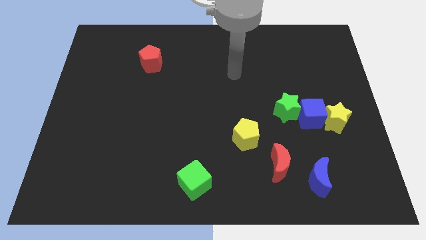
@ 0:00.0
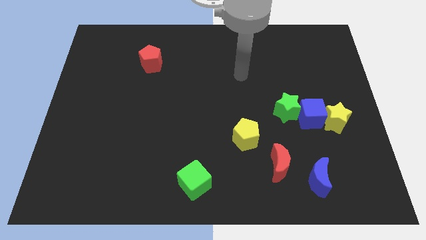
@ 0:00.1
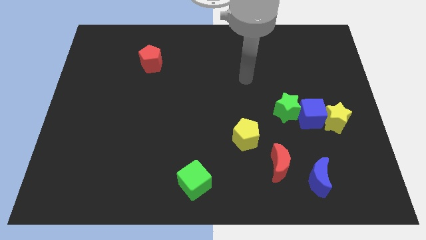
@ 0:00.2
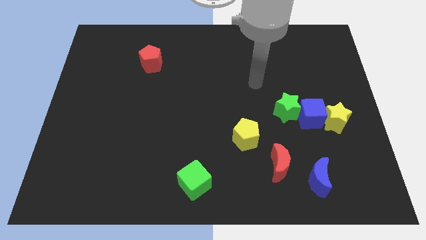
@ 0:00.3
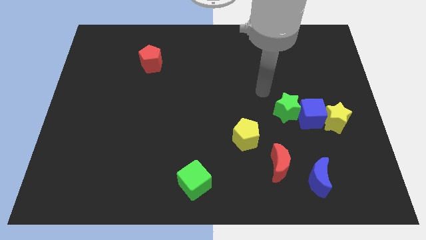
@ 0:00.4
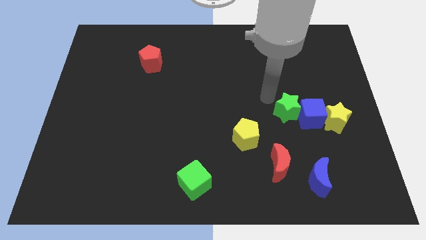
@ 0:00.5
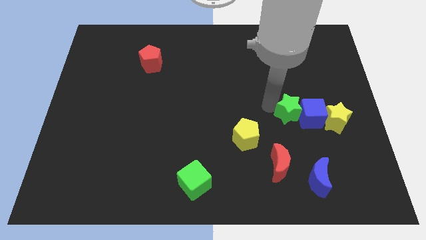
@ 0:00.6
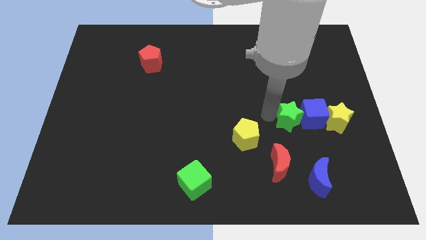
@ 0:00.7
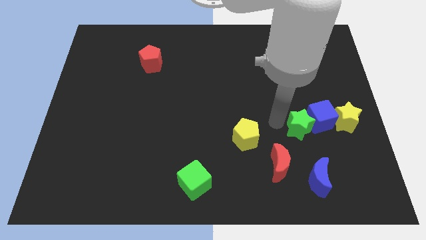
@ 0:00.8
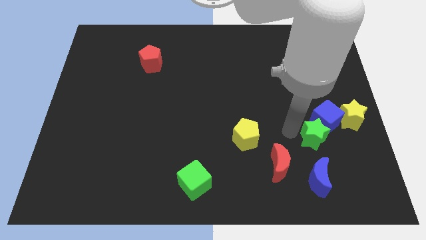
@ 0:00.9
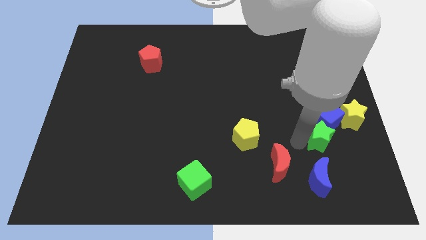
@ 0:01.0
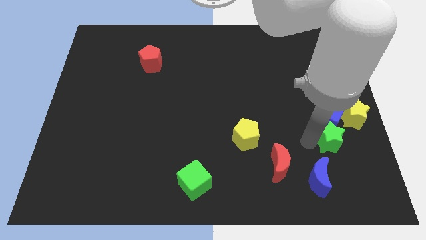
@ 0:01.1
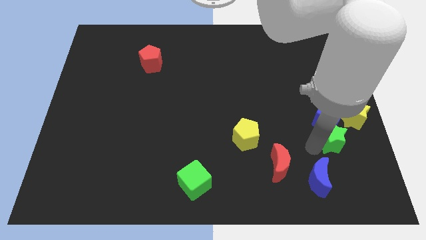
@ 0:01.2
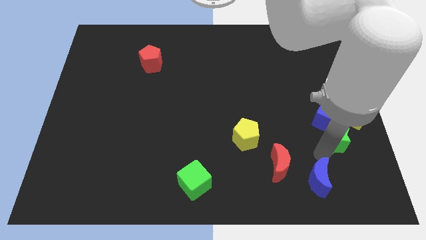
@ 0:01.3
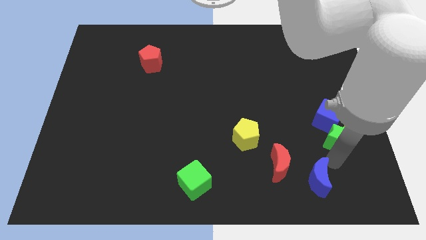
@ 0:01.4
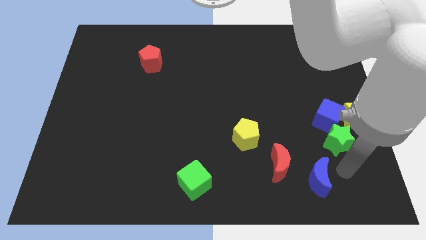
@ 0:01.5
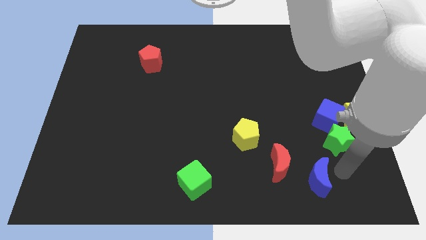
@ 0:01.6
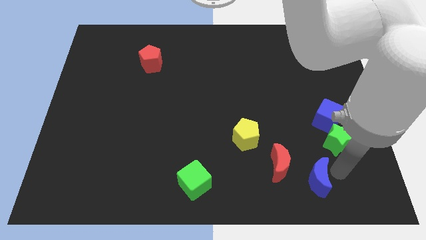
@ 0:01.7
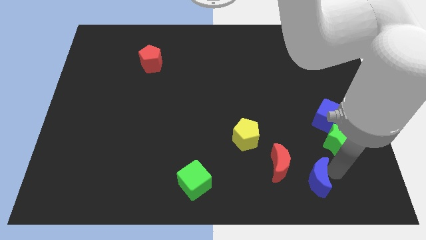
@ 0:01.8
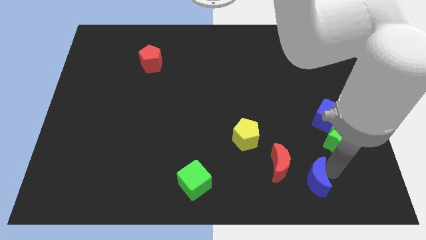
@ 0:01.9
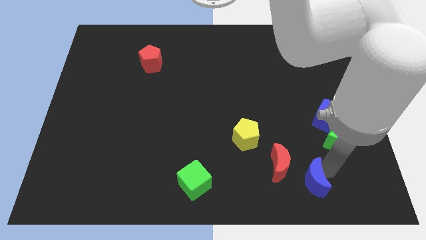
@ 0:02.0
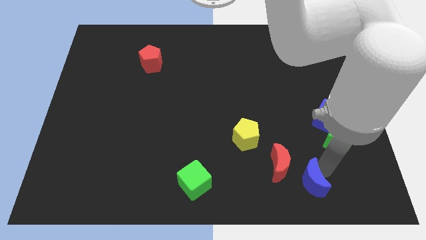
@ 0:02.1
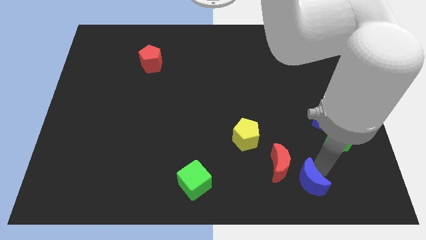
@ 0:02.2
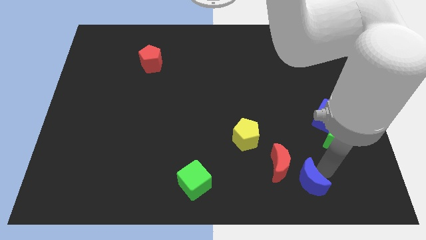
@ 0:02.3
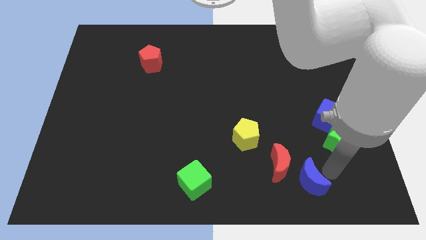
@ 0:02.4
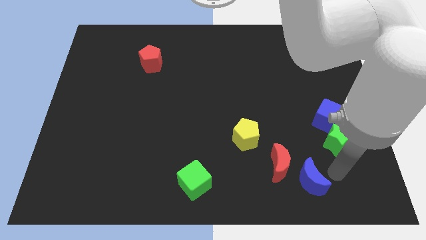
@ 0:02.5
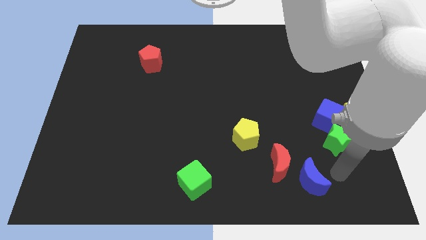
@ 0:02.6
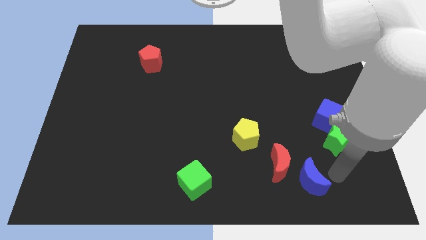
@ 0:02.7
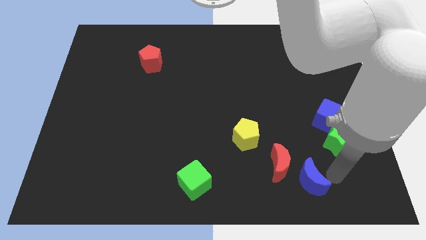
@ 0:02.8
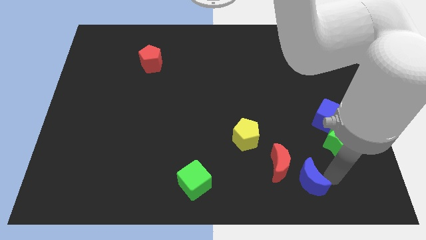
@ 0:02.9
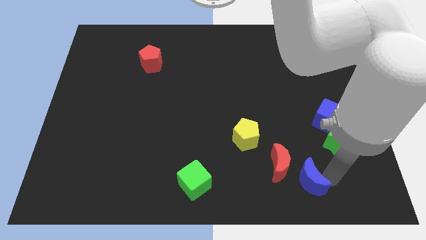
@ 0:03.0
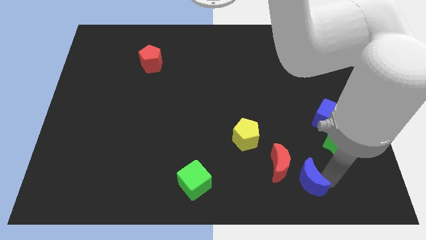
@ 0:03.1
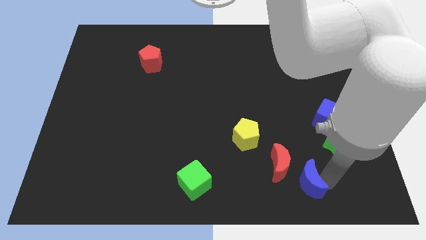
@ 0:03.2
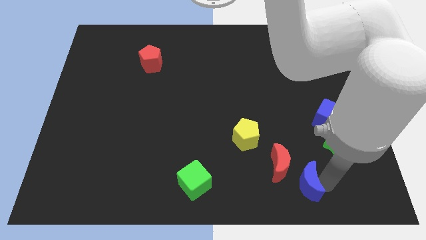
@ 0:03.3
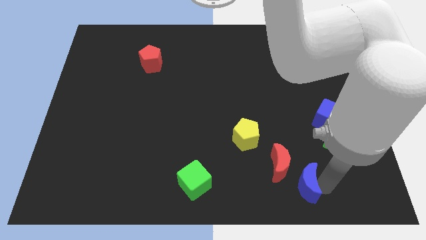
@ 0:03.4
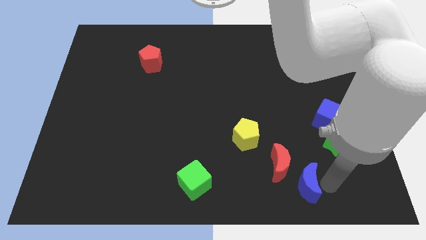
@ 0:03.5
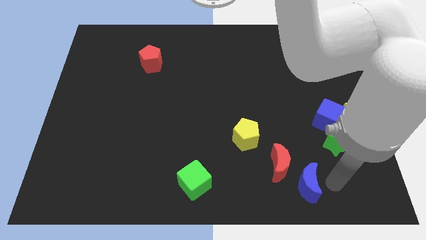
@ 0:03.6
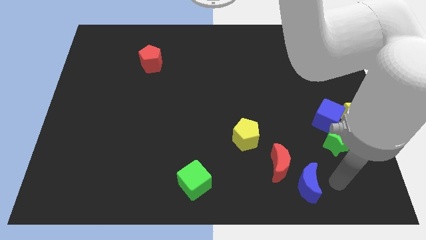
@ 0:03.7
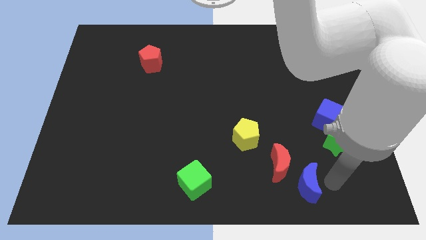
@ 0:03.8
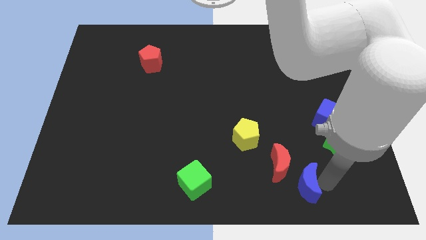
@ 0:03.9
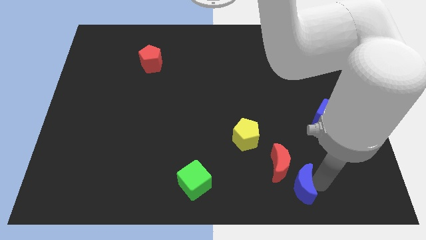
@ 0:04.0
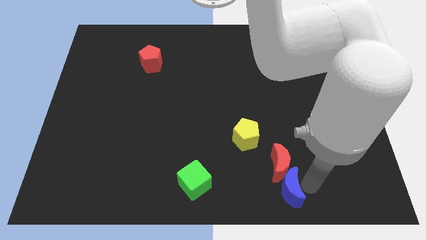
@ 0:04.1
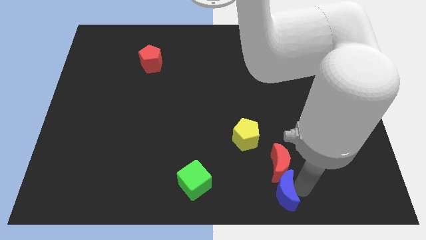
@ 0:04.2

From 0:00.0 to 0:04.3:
slightly move the blue moon left

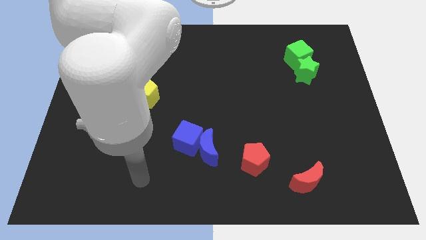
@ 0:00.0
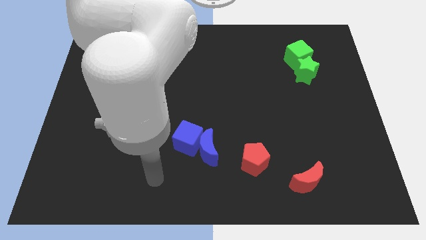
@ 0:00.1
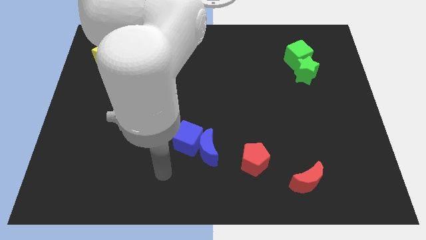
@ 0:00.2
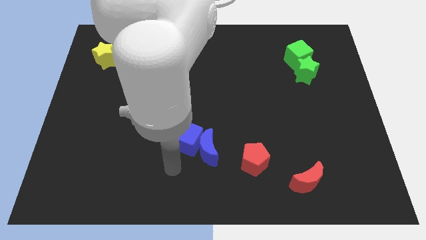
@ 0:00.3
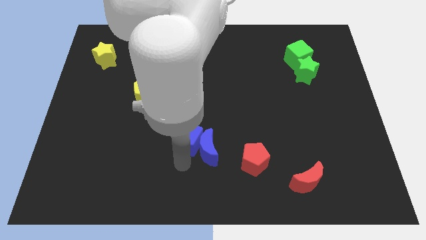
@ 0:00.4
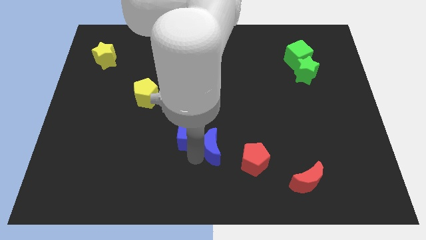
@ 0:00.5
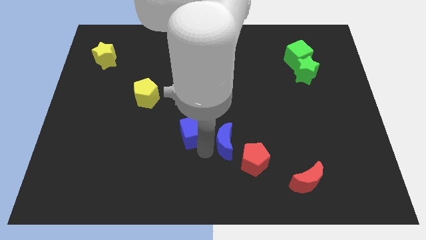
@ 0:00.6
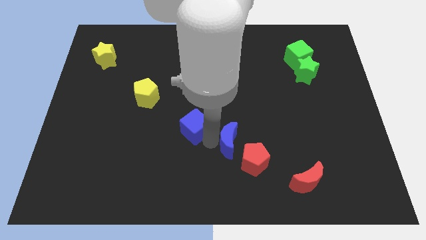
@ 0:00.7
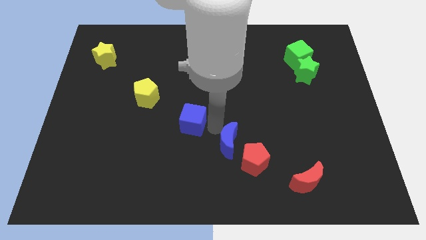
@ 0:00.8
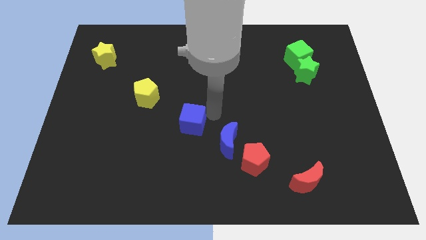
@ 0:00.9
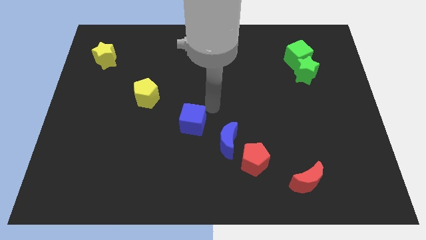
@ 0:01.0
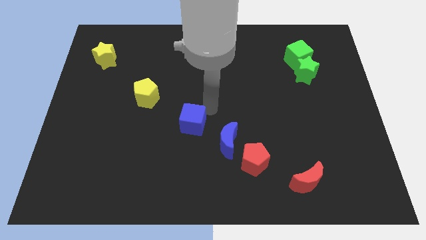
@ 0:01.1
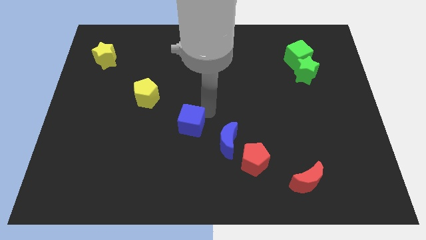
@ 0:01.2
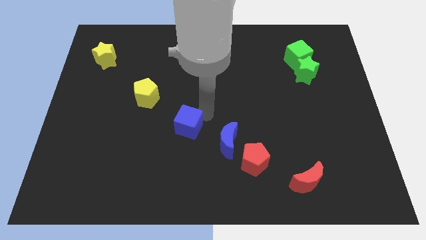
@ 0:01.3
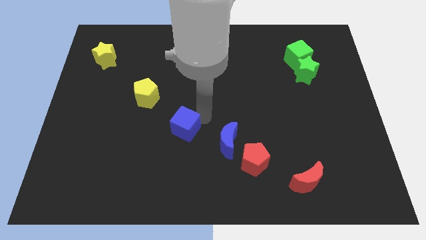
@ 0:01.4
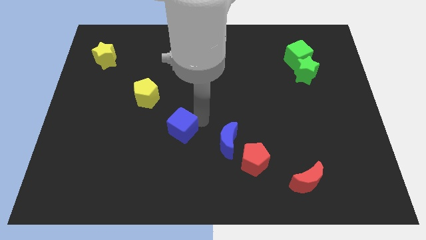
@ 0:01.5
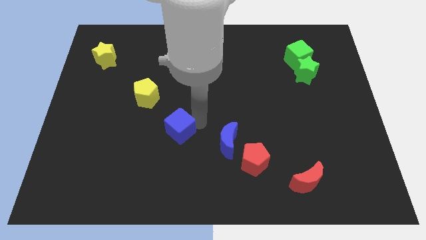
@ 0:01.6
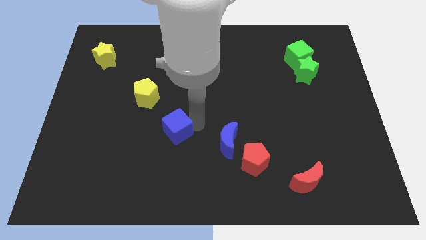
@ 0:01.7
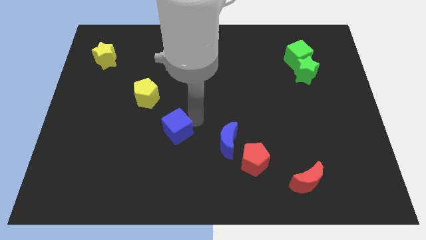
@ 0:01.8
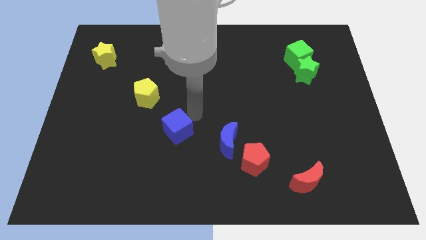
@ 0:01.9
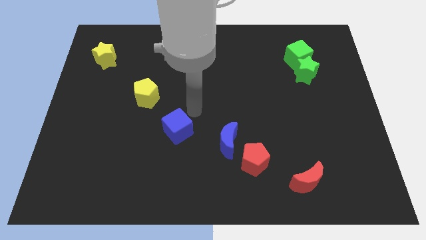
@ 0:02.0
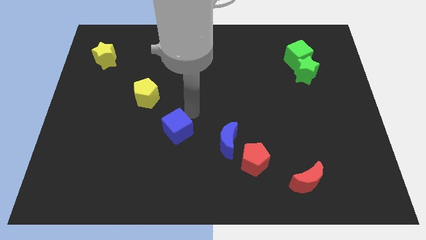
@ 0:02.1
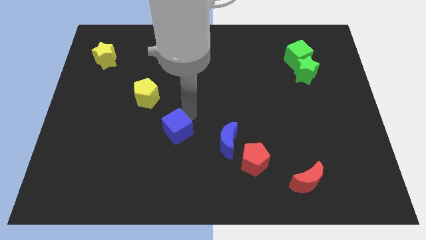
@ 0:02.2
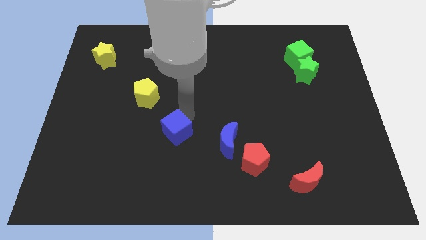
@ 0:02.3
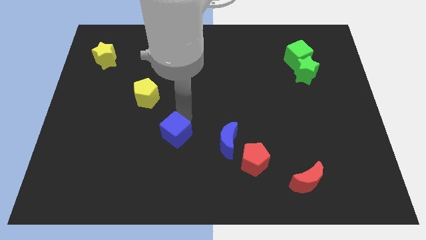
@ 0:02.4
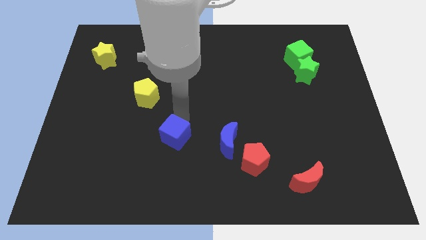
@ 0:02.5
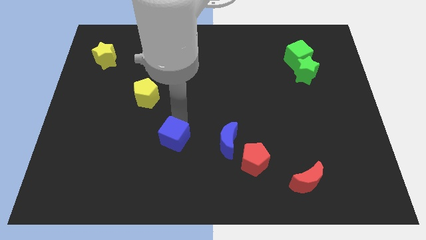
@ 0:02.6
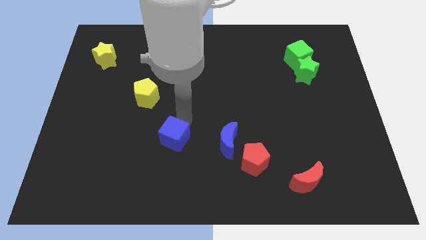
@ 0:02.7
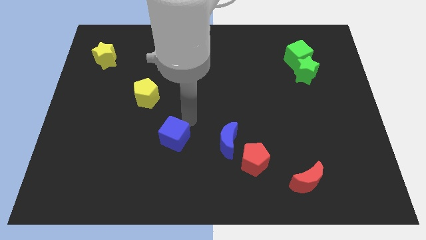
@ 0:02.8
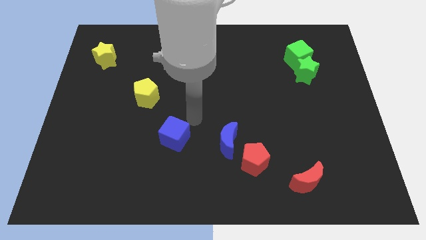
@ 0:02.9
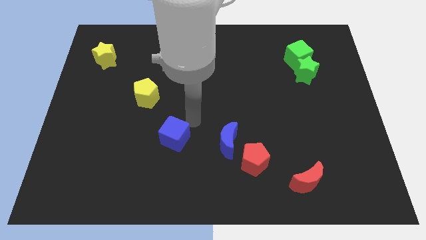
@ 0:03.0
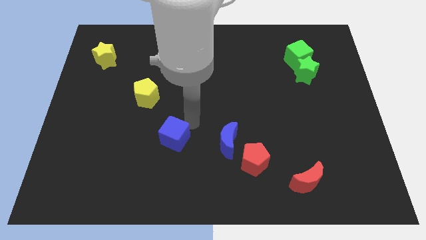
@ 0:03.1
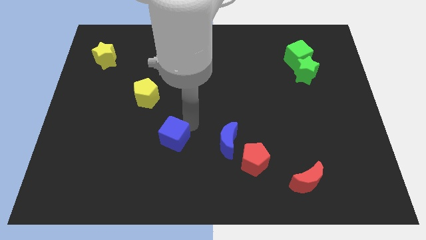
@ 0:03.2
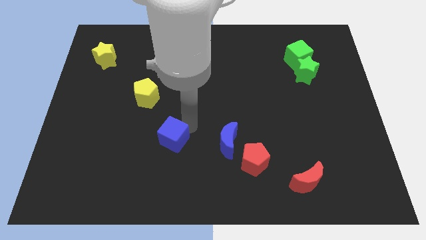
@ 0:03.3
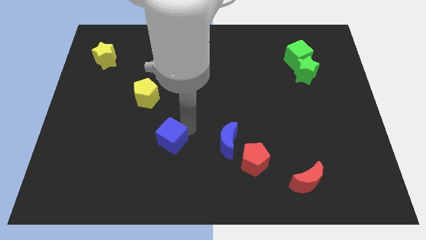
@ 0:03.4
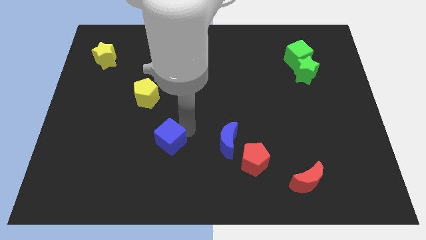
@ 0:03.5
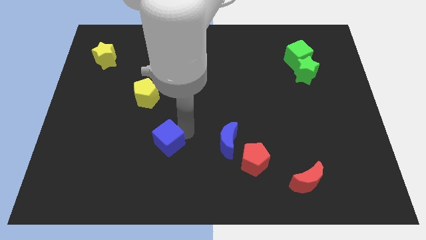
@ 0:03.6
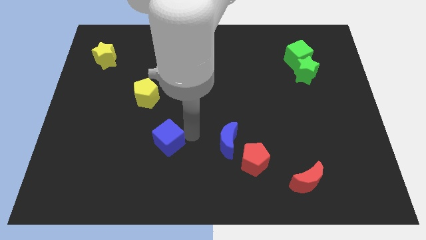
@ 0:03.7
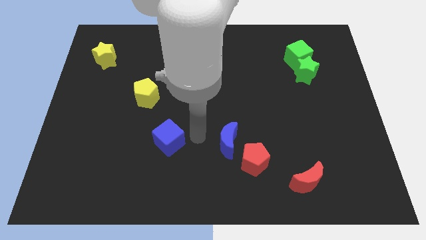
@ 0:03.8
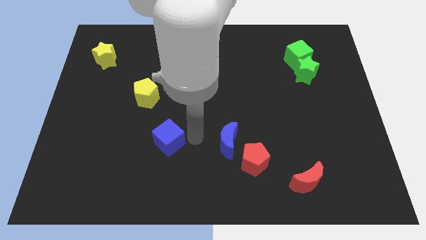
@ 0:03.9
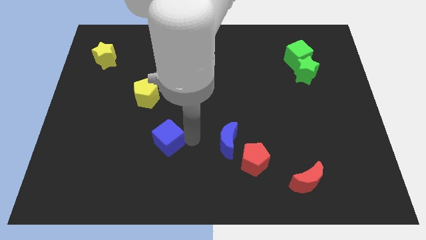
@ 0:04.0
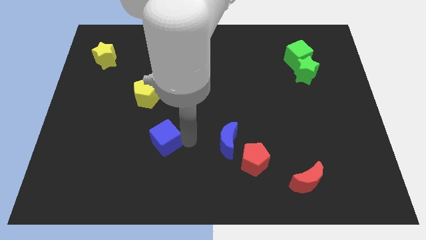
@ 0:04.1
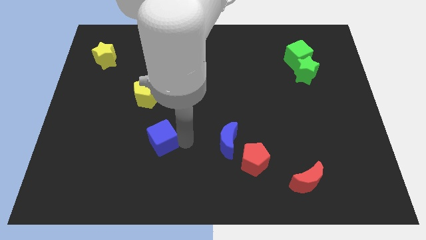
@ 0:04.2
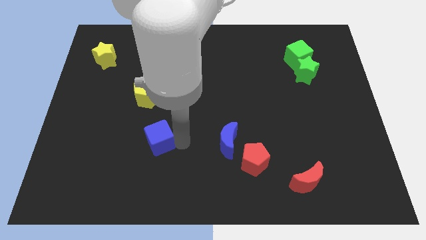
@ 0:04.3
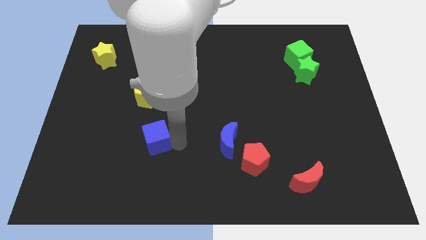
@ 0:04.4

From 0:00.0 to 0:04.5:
slightly move the blue cube to the left
